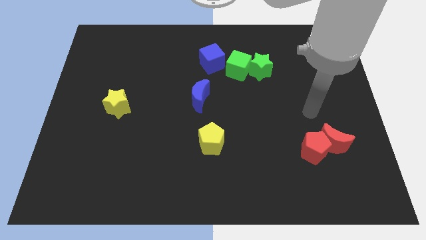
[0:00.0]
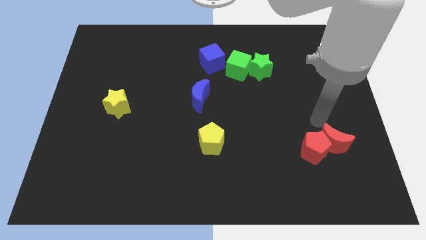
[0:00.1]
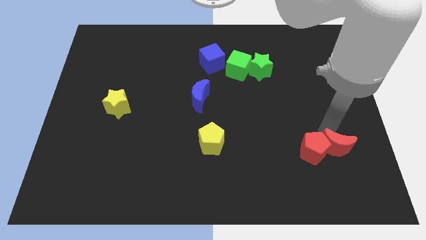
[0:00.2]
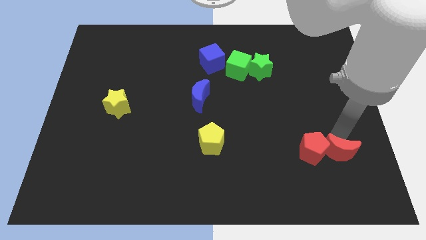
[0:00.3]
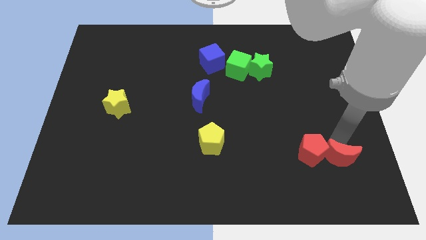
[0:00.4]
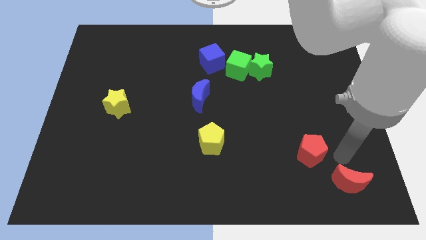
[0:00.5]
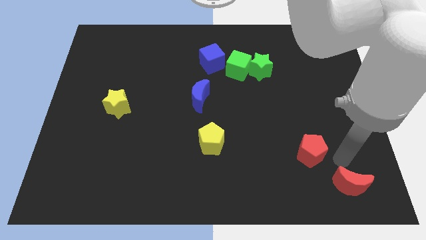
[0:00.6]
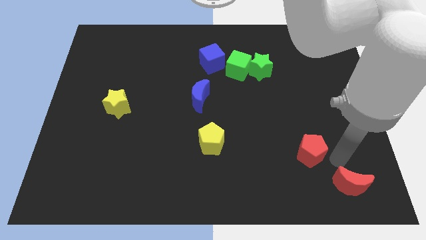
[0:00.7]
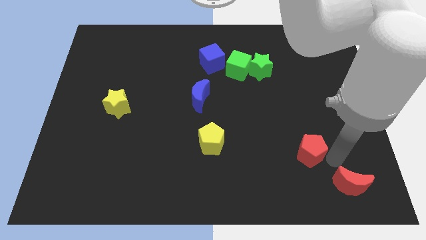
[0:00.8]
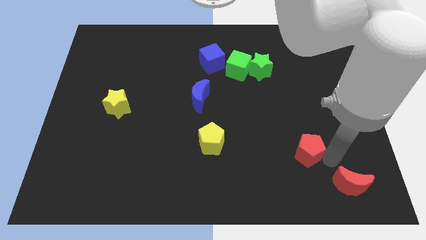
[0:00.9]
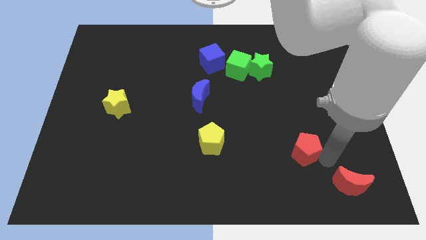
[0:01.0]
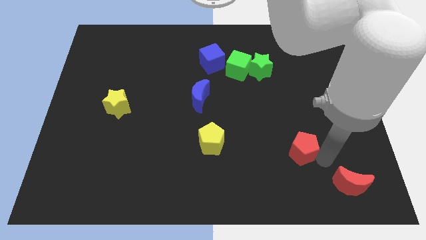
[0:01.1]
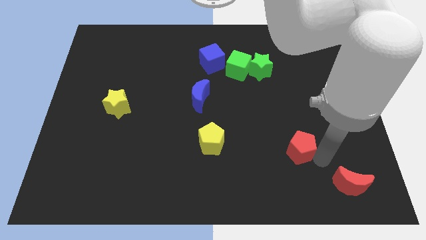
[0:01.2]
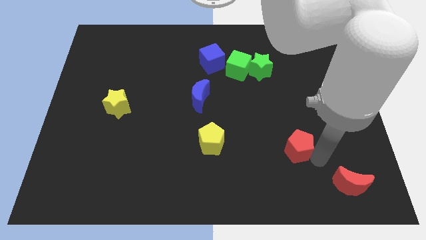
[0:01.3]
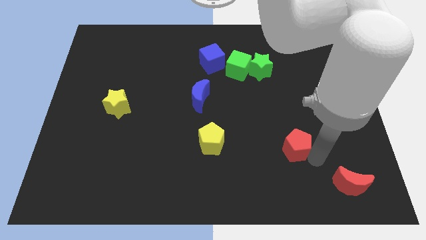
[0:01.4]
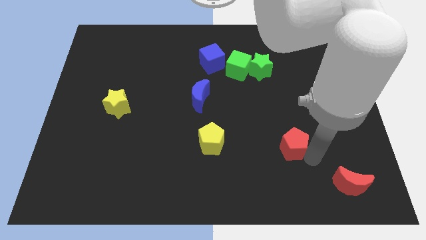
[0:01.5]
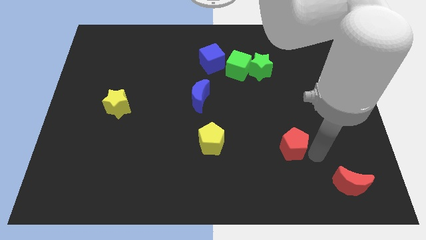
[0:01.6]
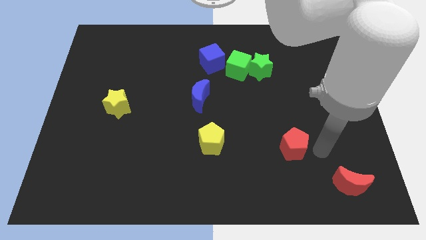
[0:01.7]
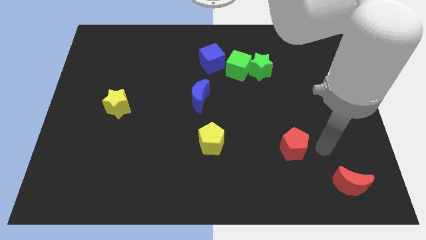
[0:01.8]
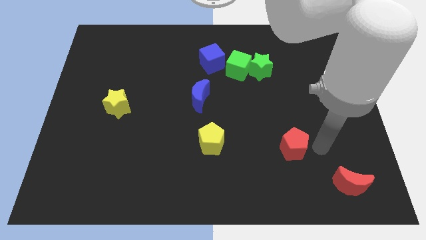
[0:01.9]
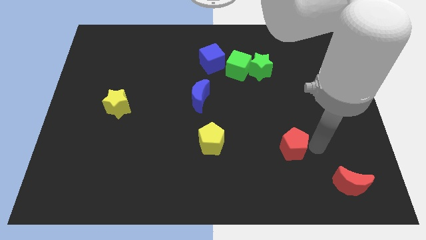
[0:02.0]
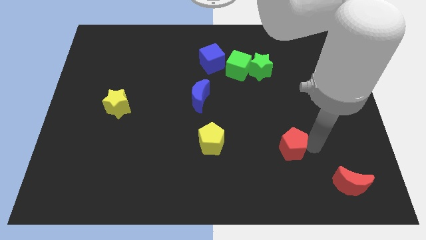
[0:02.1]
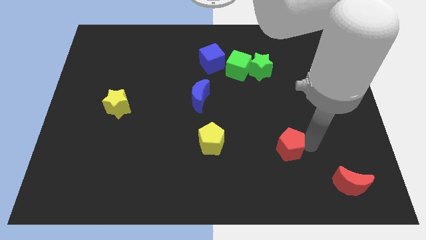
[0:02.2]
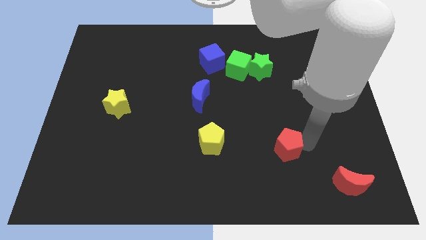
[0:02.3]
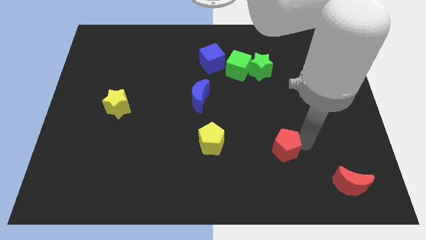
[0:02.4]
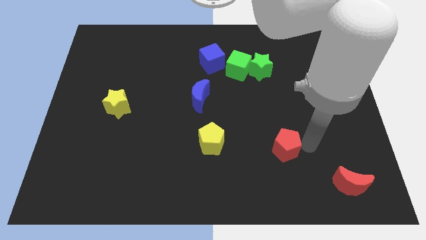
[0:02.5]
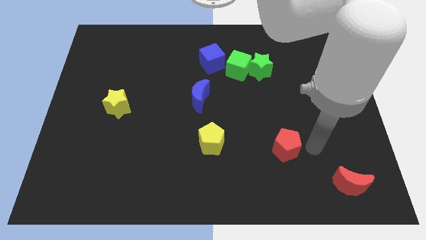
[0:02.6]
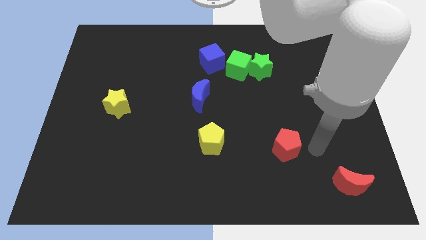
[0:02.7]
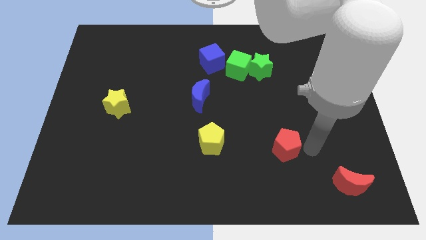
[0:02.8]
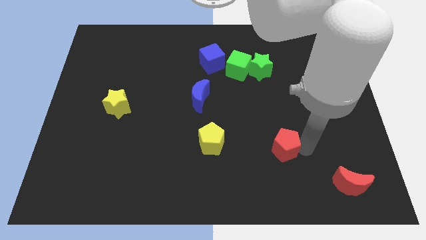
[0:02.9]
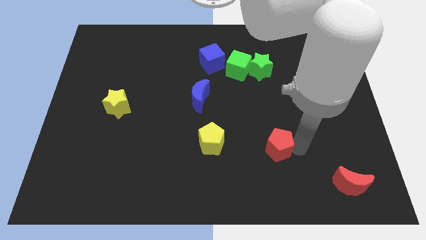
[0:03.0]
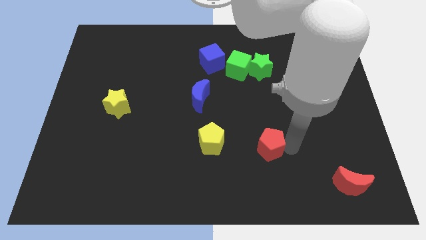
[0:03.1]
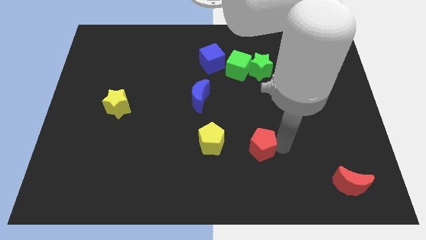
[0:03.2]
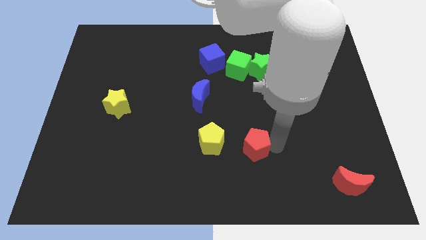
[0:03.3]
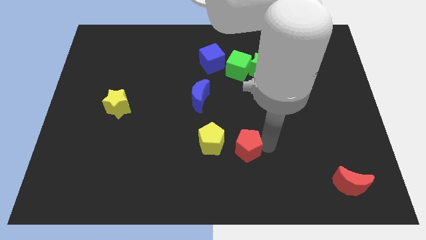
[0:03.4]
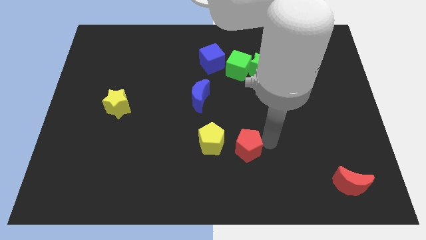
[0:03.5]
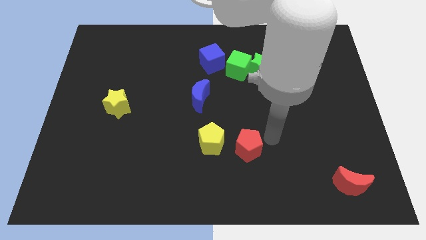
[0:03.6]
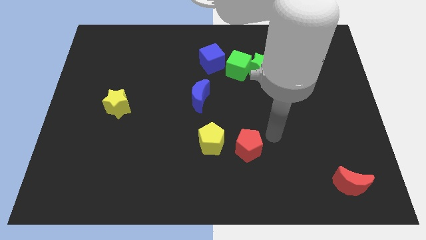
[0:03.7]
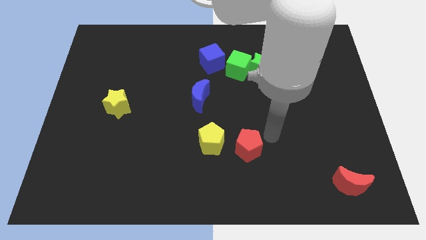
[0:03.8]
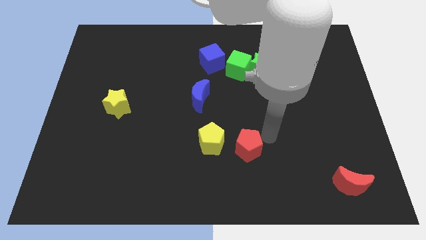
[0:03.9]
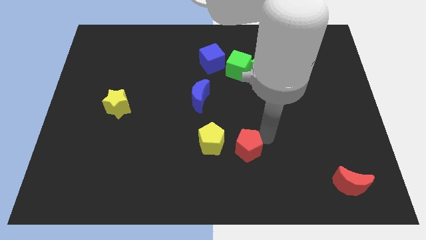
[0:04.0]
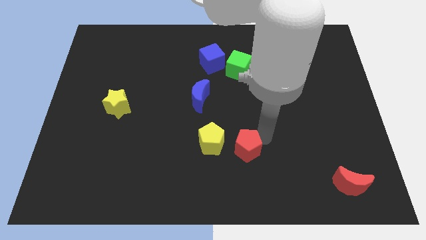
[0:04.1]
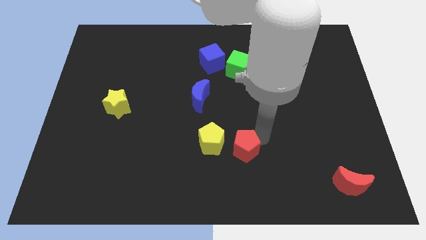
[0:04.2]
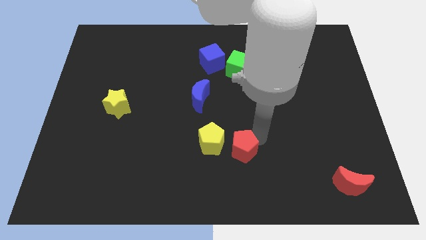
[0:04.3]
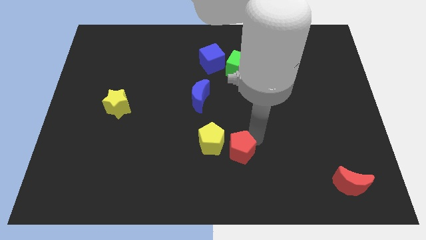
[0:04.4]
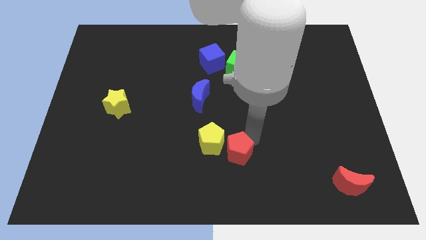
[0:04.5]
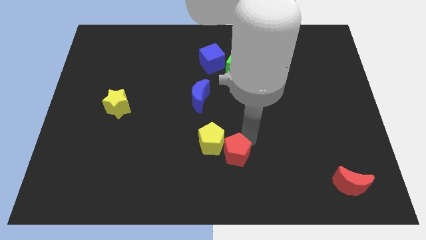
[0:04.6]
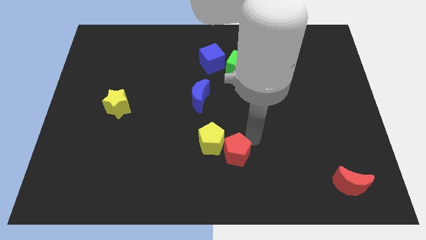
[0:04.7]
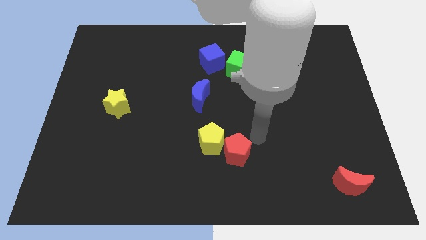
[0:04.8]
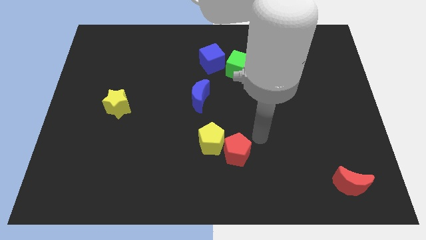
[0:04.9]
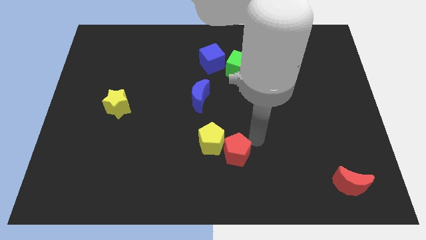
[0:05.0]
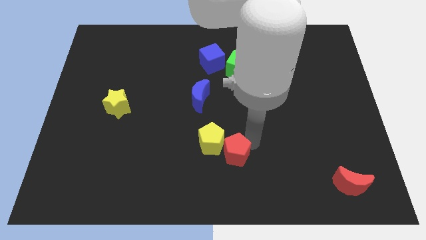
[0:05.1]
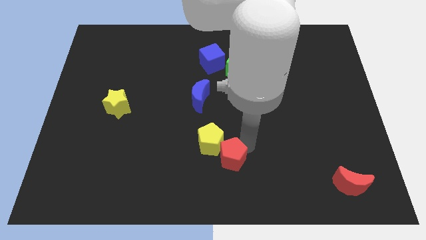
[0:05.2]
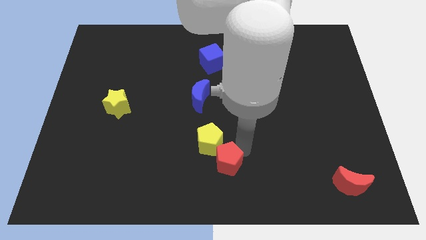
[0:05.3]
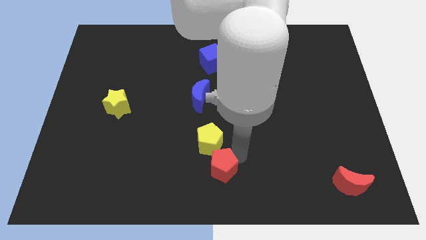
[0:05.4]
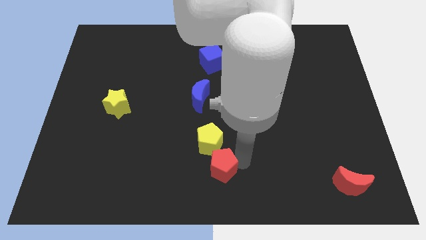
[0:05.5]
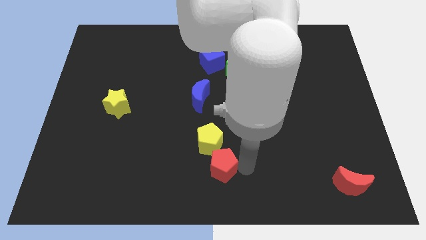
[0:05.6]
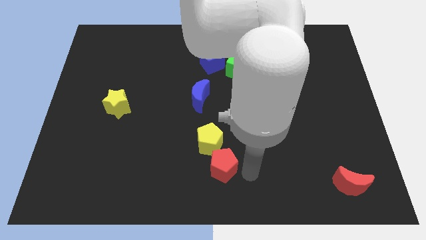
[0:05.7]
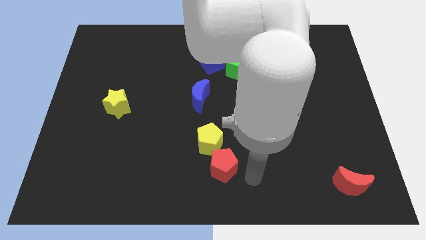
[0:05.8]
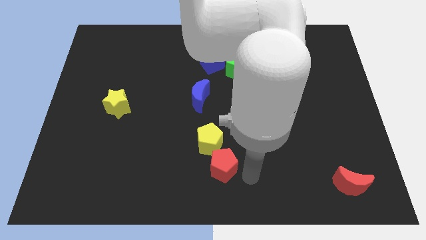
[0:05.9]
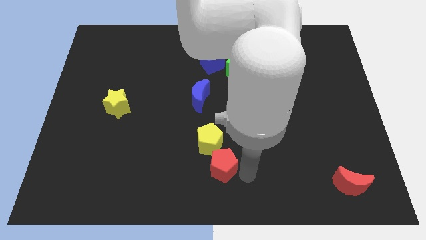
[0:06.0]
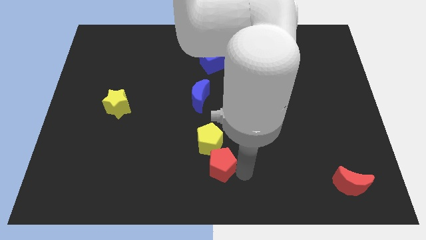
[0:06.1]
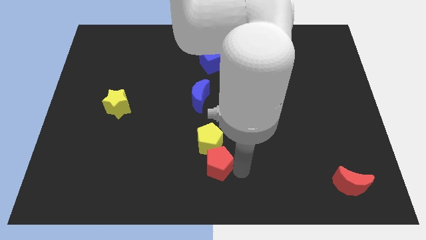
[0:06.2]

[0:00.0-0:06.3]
move the red pentagon left

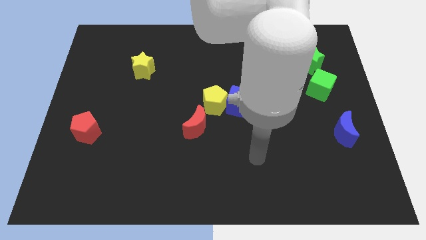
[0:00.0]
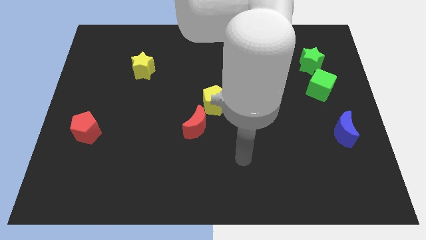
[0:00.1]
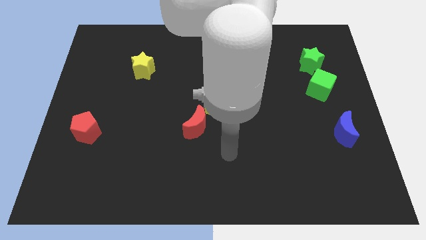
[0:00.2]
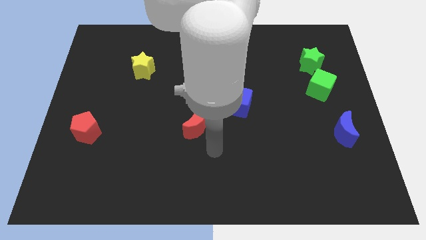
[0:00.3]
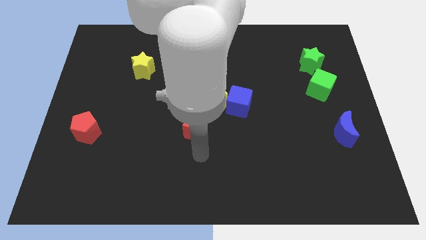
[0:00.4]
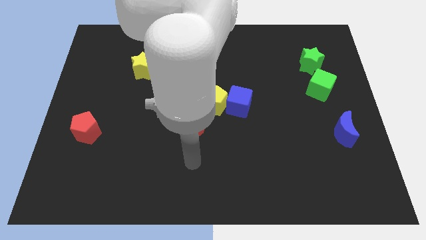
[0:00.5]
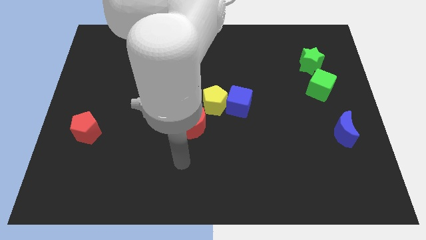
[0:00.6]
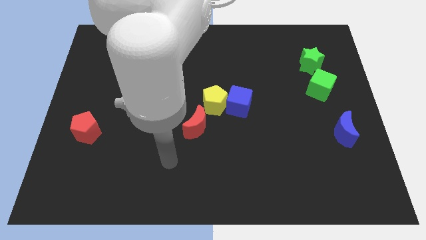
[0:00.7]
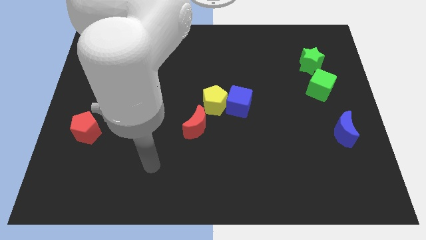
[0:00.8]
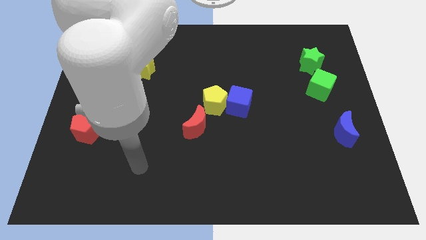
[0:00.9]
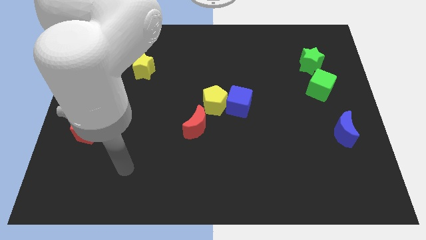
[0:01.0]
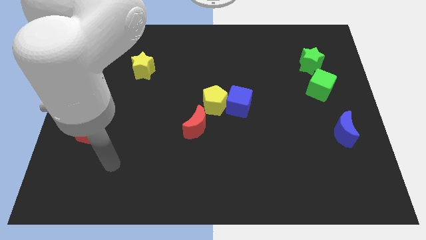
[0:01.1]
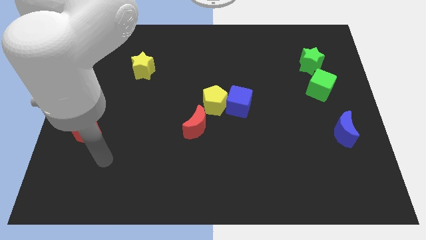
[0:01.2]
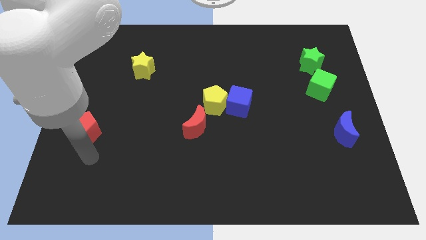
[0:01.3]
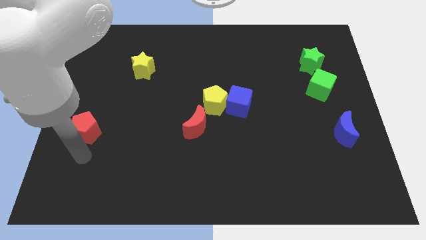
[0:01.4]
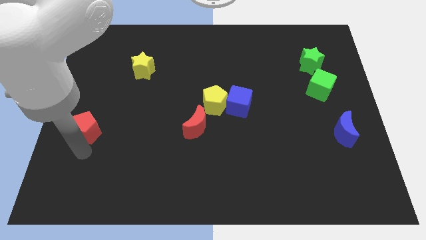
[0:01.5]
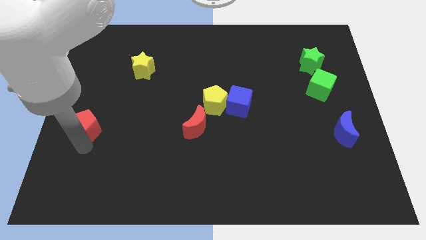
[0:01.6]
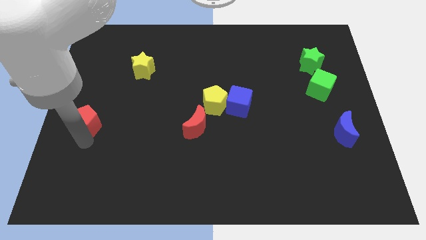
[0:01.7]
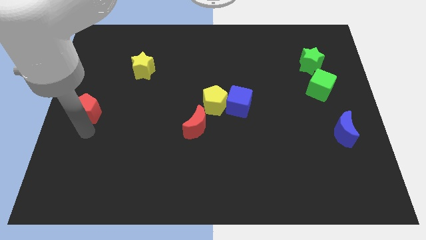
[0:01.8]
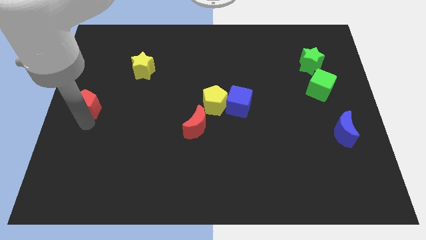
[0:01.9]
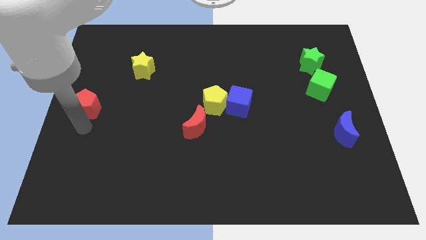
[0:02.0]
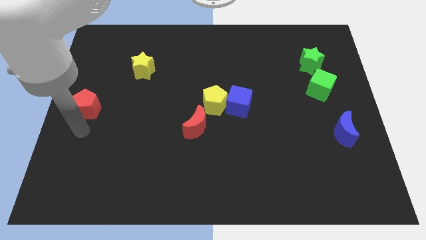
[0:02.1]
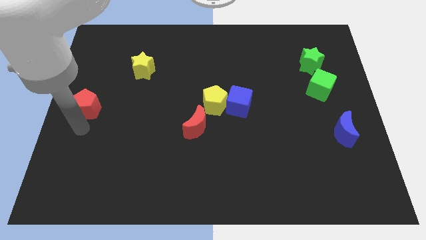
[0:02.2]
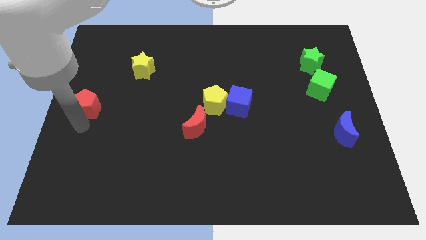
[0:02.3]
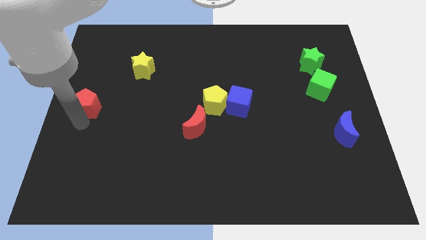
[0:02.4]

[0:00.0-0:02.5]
slightly push the red pentagon upwards
